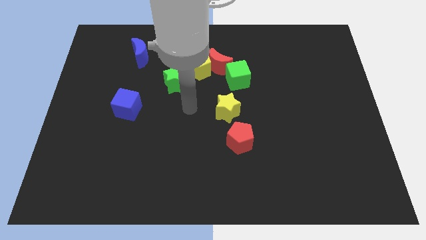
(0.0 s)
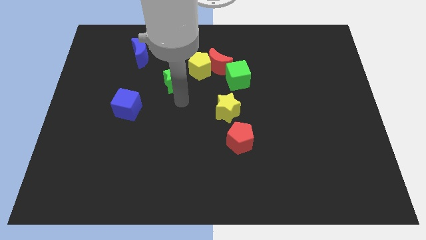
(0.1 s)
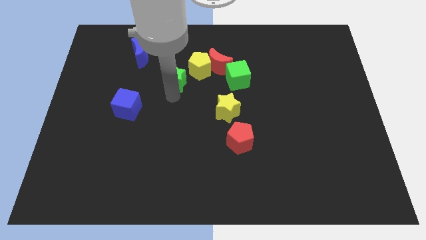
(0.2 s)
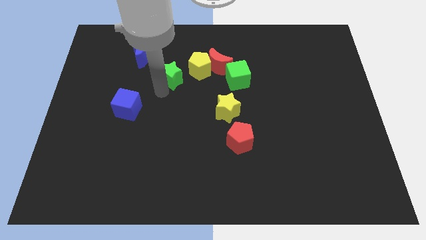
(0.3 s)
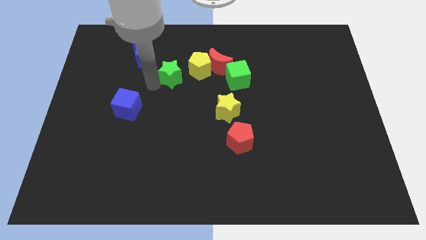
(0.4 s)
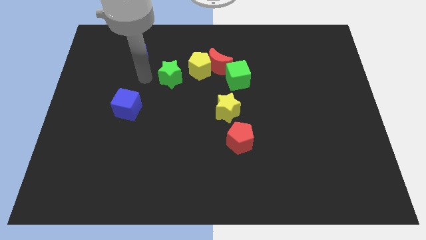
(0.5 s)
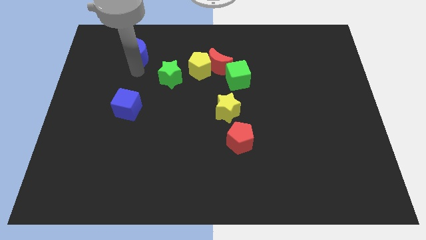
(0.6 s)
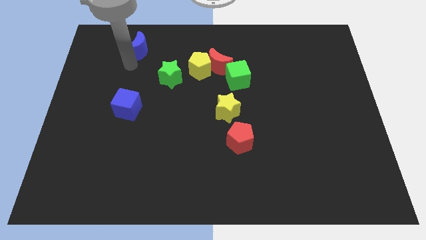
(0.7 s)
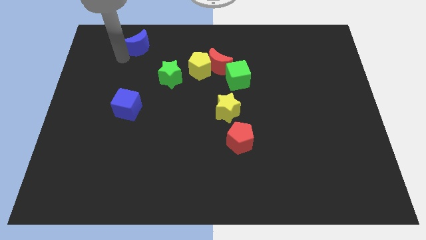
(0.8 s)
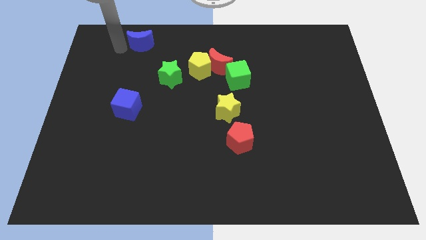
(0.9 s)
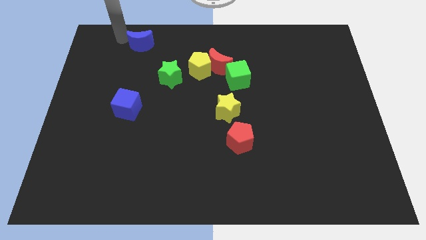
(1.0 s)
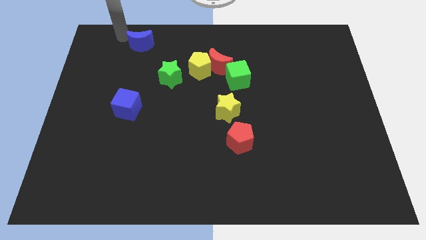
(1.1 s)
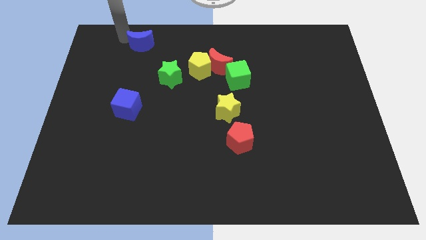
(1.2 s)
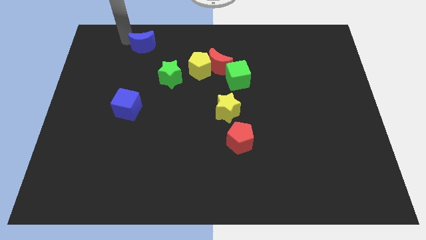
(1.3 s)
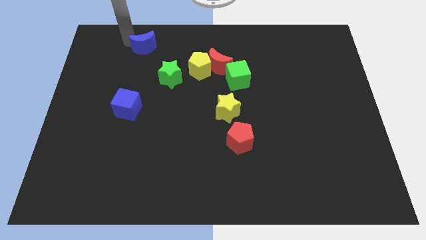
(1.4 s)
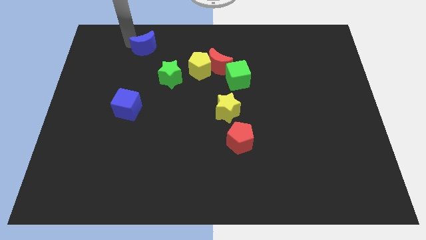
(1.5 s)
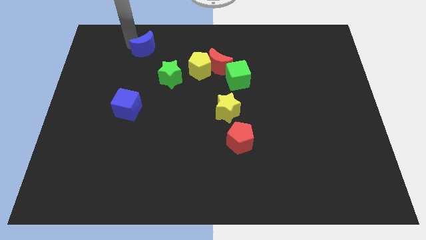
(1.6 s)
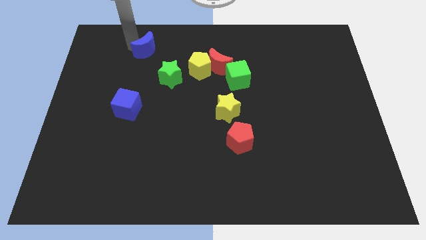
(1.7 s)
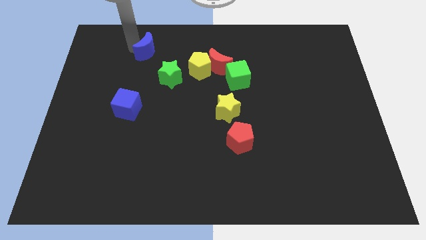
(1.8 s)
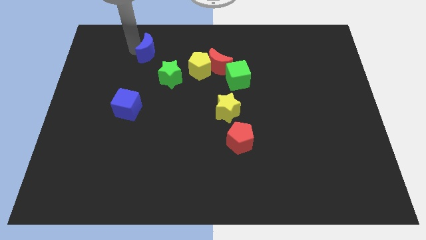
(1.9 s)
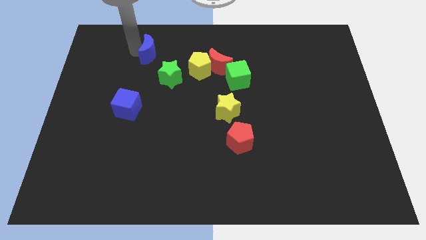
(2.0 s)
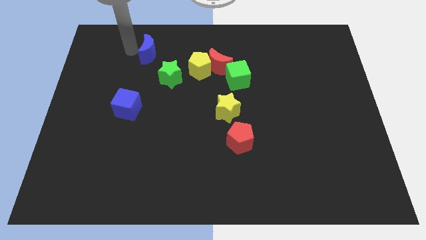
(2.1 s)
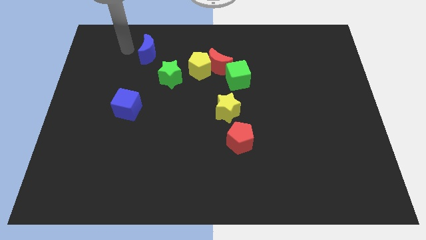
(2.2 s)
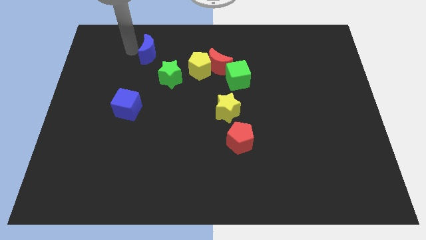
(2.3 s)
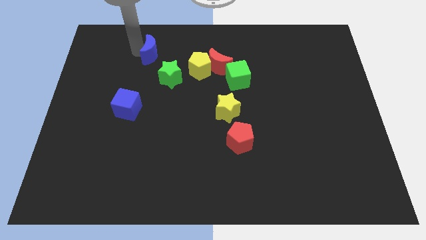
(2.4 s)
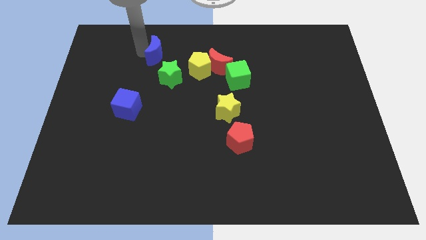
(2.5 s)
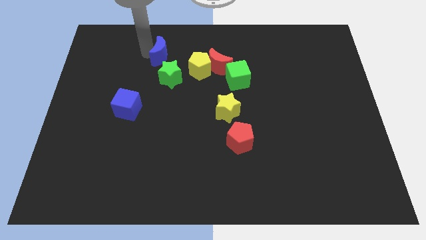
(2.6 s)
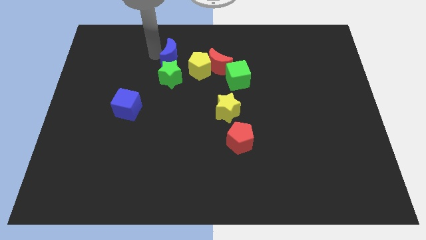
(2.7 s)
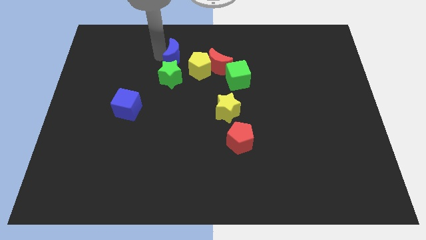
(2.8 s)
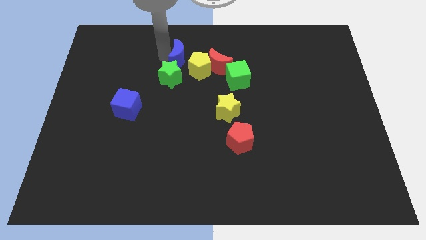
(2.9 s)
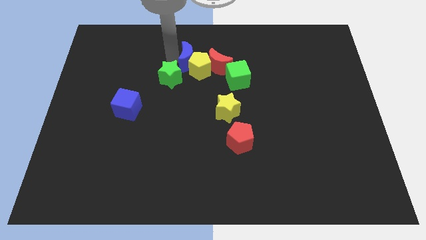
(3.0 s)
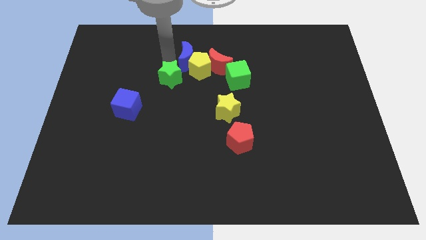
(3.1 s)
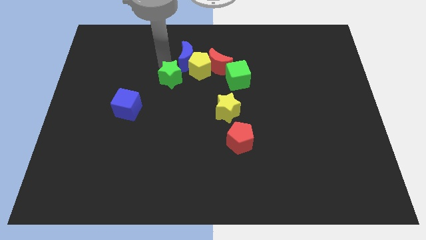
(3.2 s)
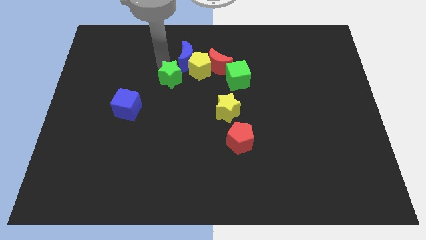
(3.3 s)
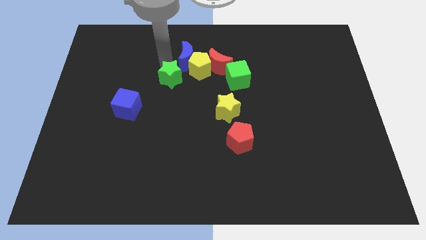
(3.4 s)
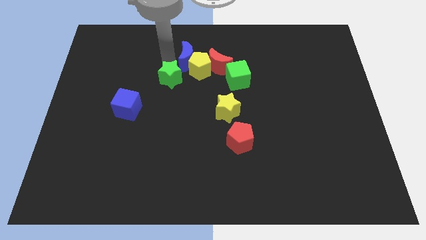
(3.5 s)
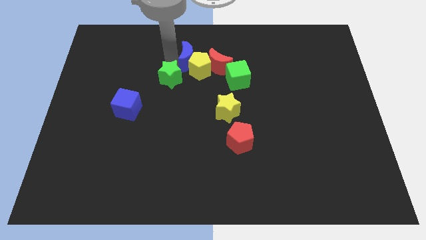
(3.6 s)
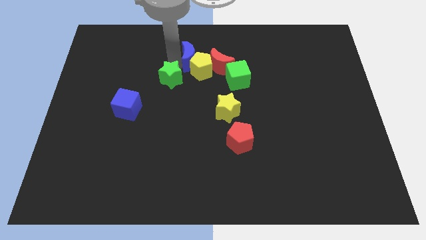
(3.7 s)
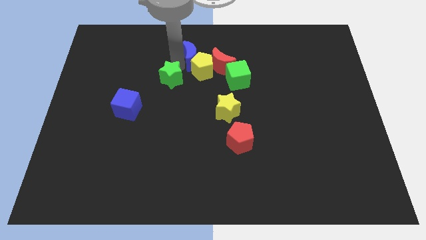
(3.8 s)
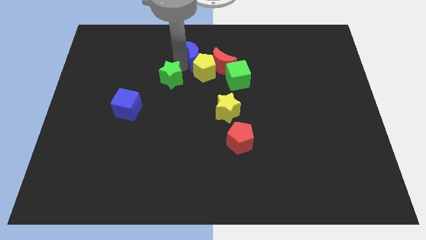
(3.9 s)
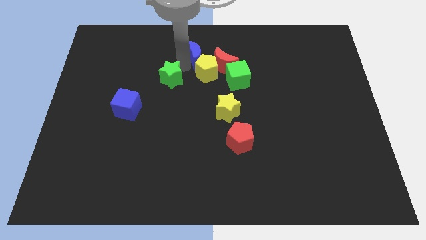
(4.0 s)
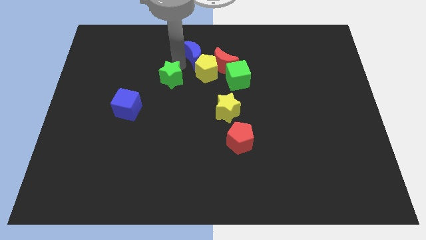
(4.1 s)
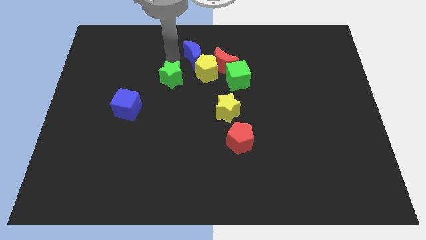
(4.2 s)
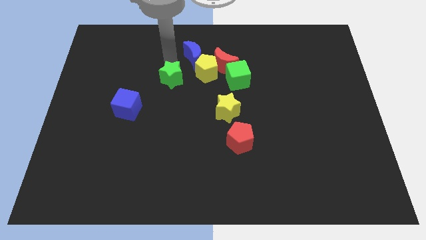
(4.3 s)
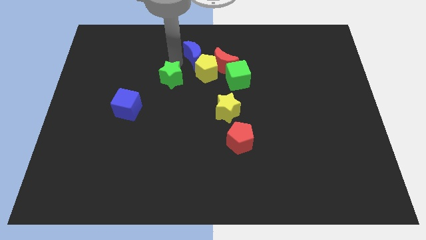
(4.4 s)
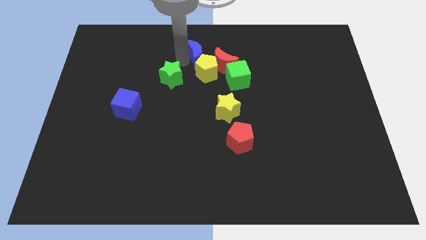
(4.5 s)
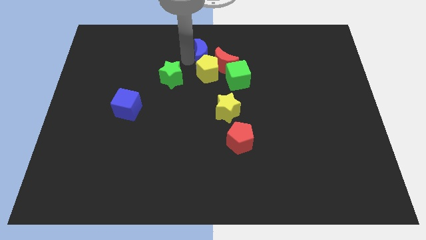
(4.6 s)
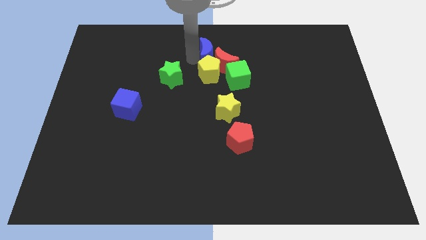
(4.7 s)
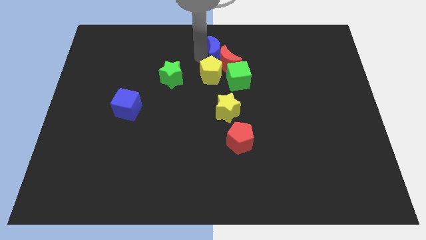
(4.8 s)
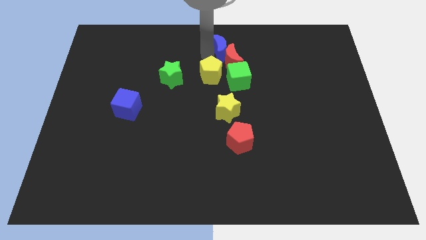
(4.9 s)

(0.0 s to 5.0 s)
move the blue moon to the right

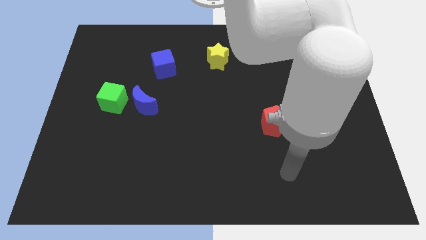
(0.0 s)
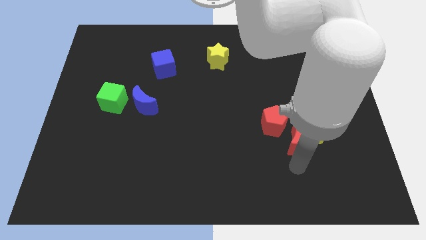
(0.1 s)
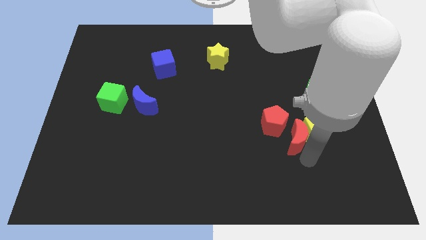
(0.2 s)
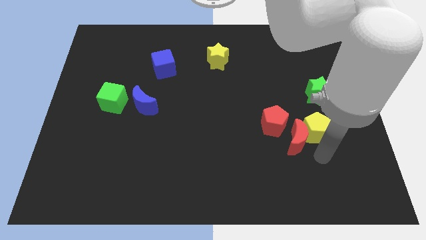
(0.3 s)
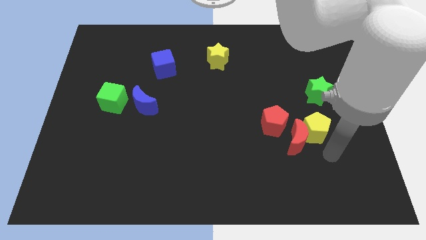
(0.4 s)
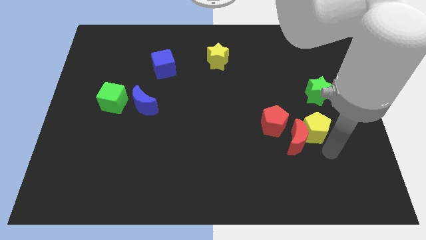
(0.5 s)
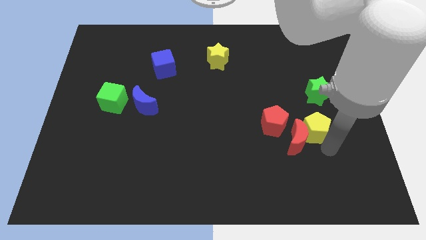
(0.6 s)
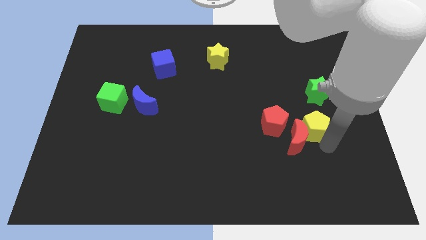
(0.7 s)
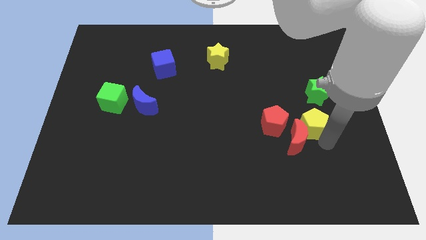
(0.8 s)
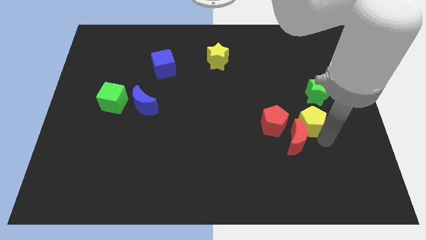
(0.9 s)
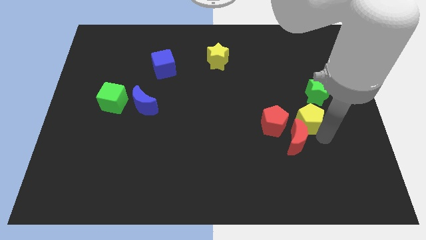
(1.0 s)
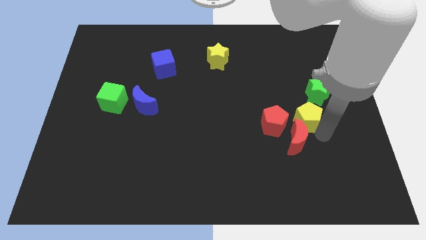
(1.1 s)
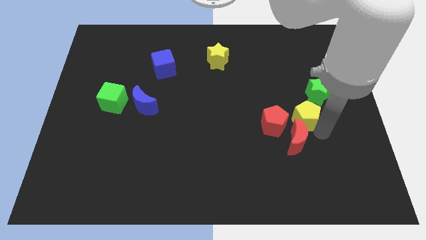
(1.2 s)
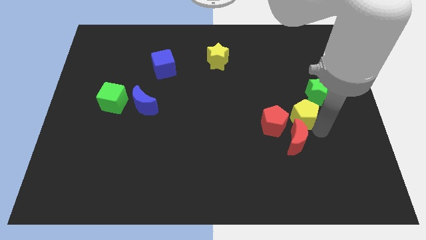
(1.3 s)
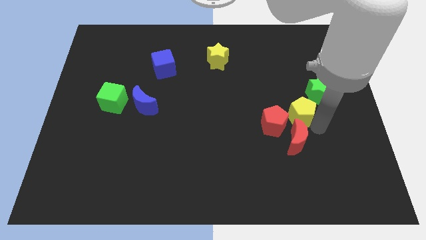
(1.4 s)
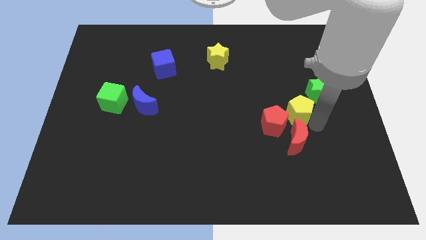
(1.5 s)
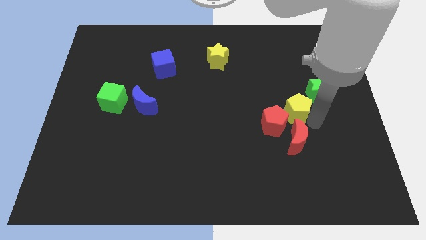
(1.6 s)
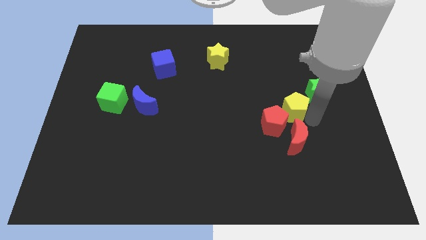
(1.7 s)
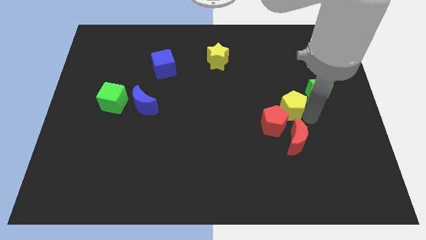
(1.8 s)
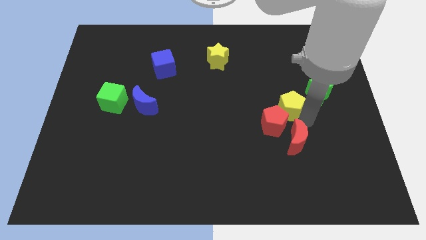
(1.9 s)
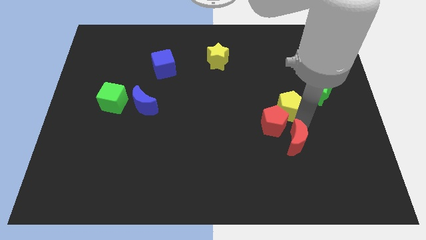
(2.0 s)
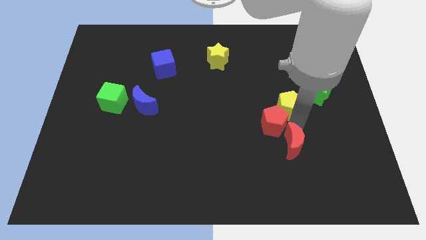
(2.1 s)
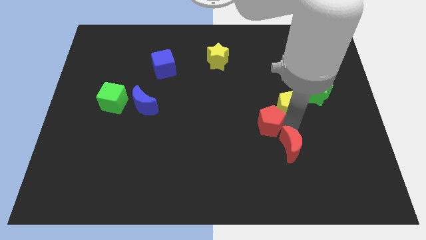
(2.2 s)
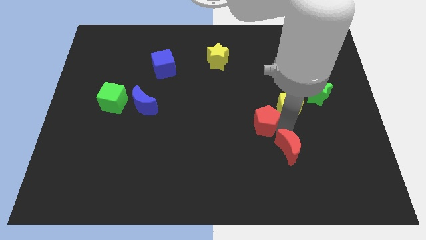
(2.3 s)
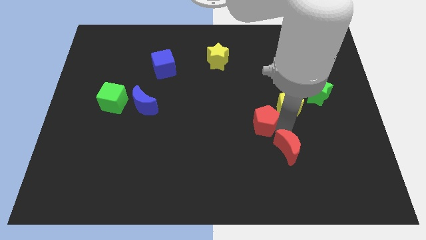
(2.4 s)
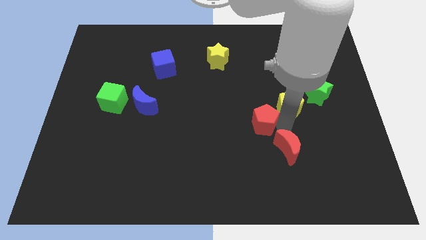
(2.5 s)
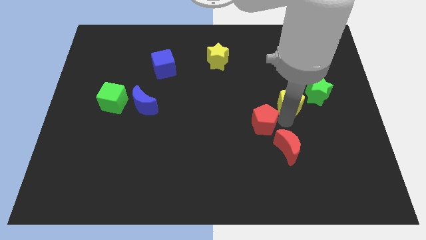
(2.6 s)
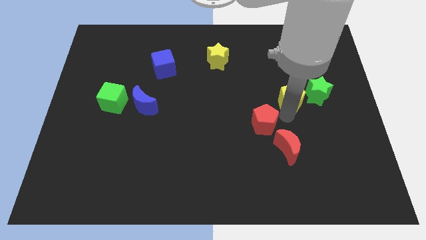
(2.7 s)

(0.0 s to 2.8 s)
slightly push the yellow pentagon upwards

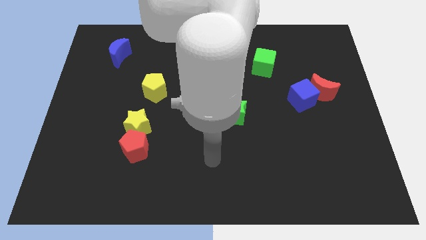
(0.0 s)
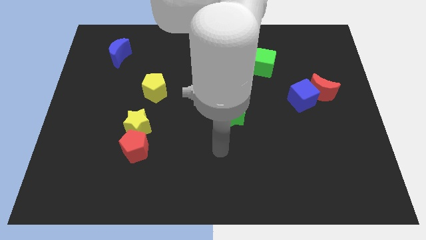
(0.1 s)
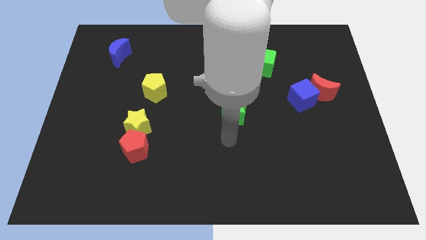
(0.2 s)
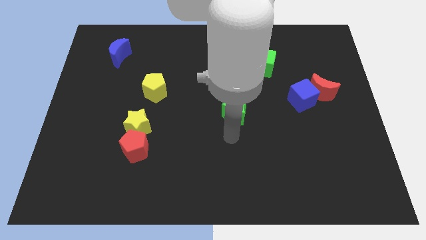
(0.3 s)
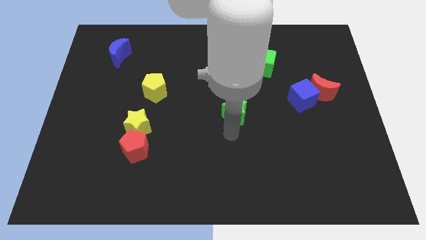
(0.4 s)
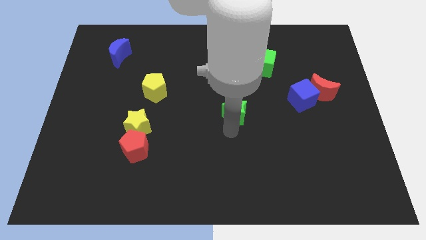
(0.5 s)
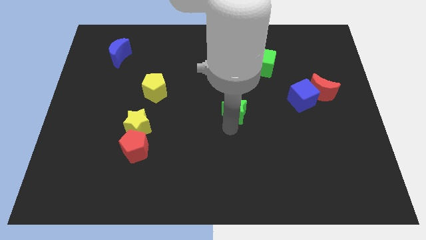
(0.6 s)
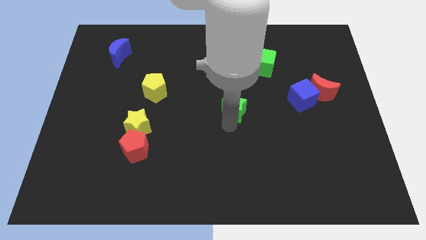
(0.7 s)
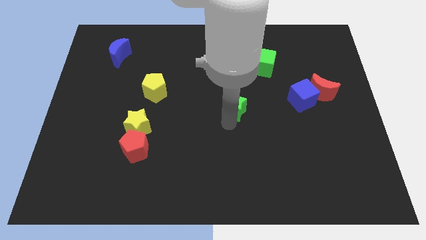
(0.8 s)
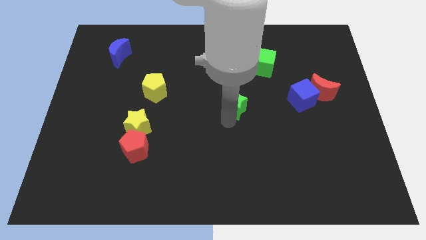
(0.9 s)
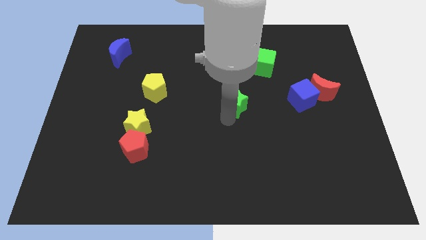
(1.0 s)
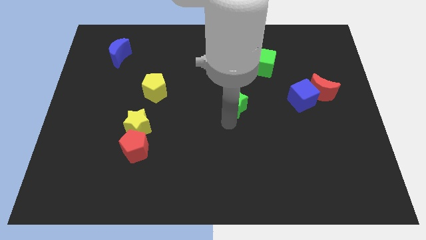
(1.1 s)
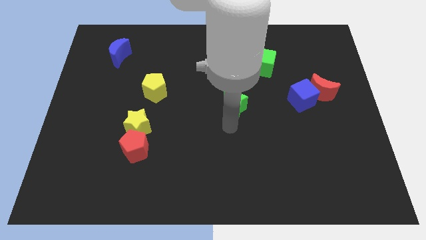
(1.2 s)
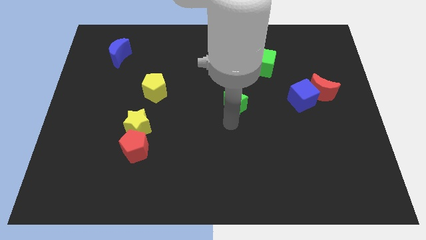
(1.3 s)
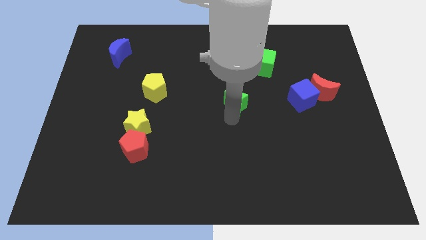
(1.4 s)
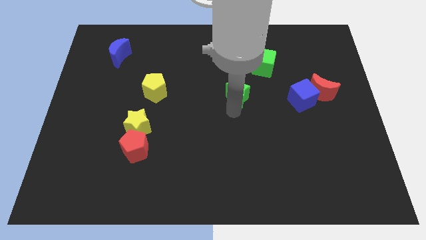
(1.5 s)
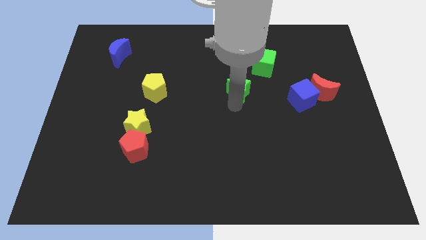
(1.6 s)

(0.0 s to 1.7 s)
move the green star slightly upwards
